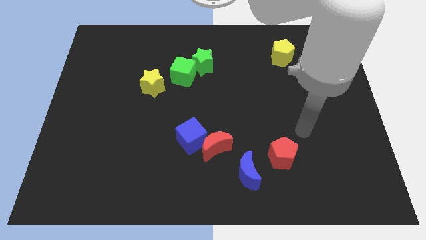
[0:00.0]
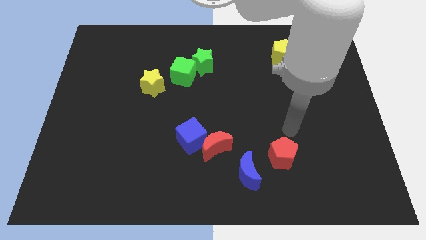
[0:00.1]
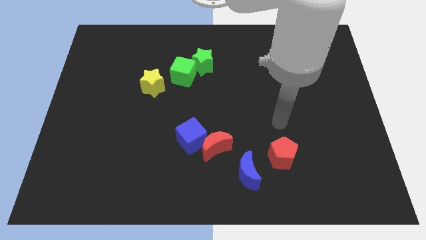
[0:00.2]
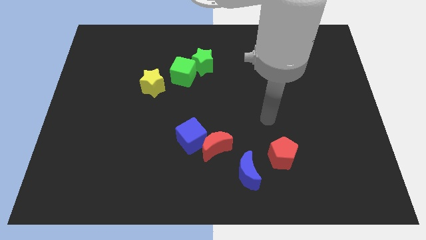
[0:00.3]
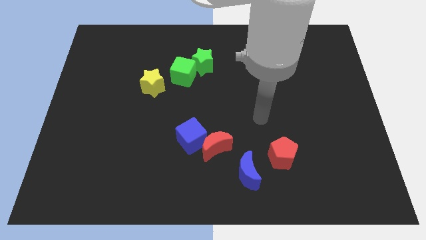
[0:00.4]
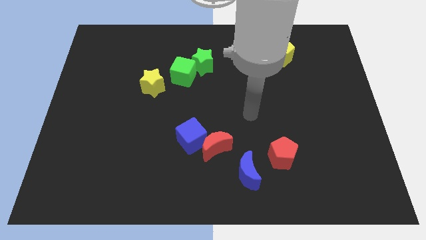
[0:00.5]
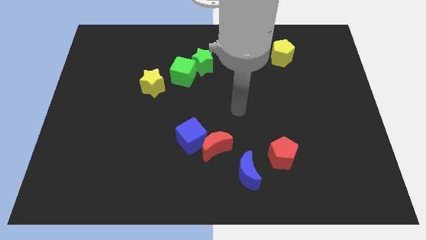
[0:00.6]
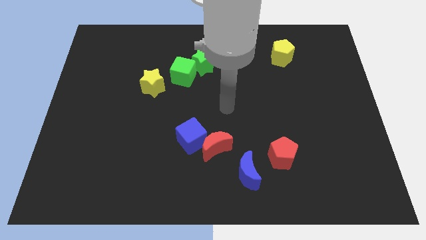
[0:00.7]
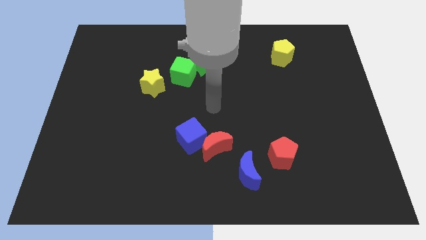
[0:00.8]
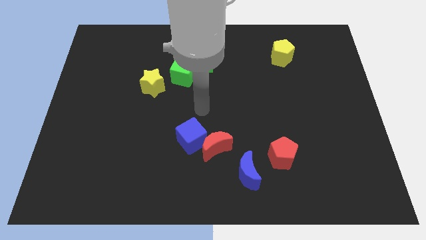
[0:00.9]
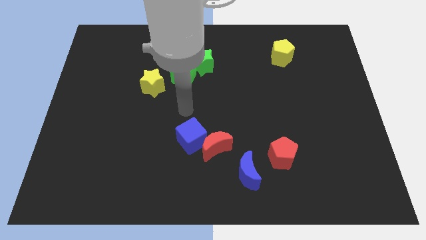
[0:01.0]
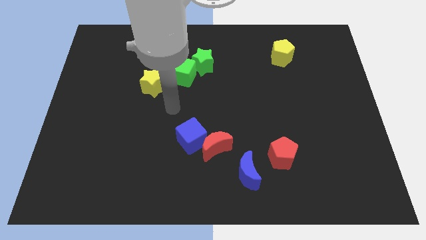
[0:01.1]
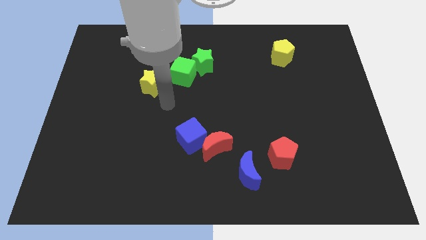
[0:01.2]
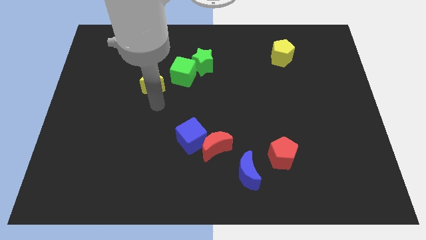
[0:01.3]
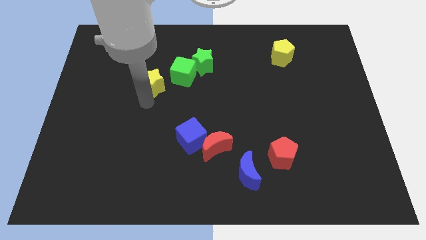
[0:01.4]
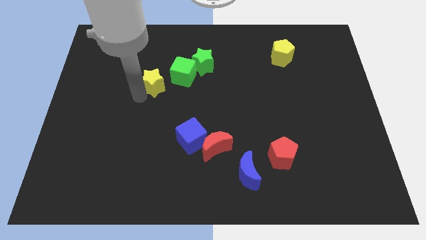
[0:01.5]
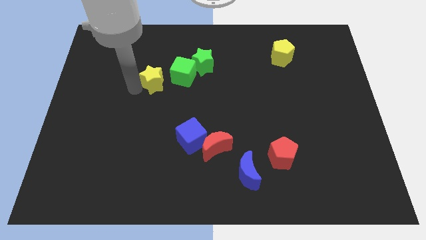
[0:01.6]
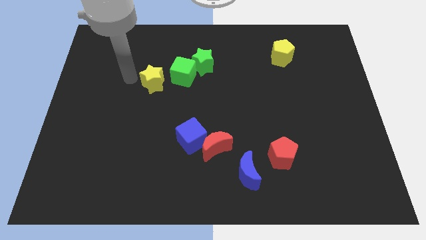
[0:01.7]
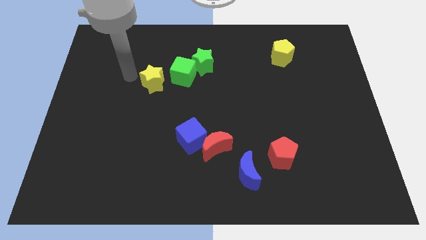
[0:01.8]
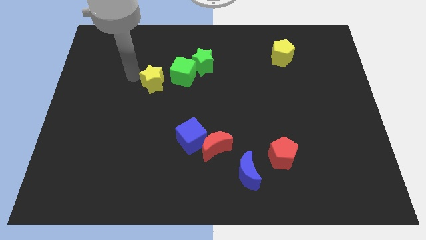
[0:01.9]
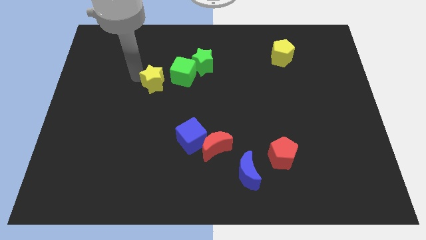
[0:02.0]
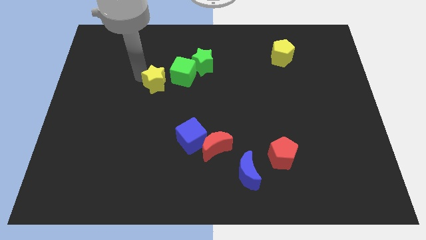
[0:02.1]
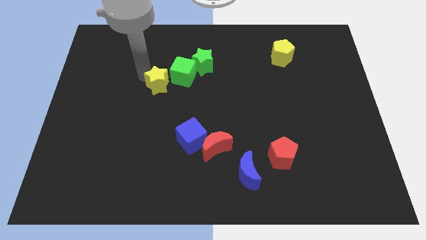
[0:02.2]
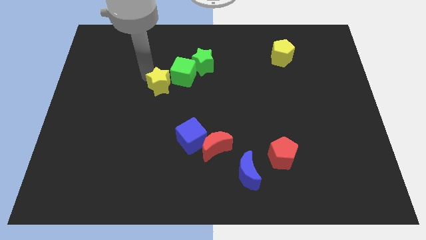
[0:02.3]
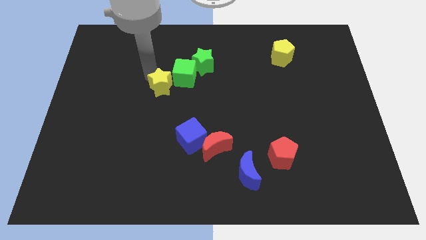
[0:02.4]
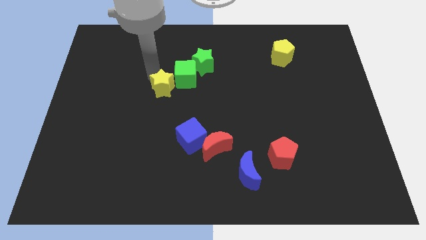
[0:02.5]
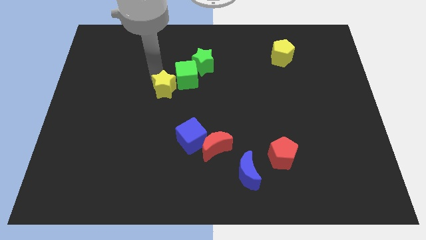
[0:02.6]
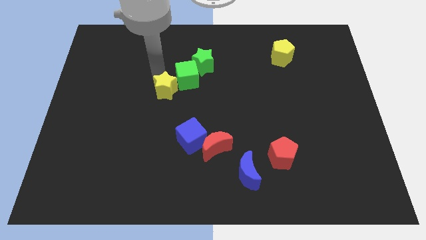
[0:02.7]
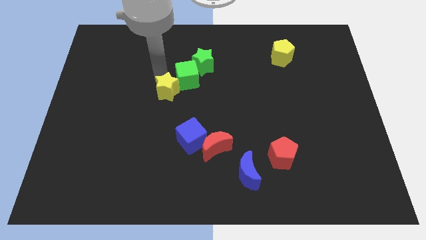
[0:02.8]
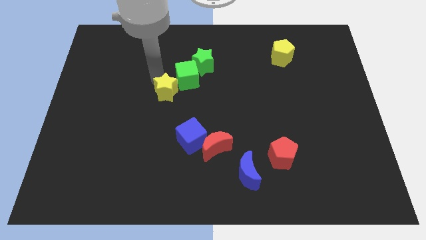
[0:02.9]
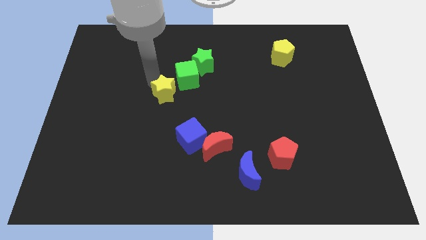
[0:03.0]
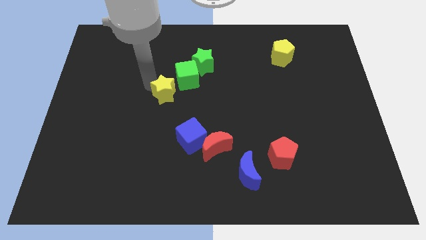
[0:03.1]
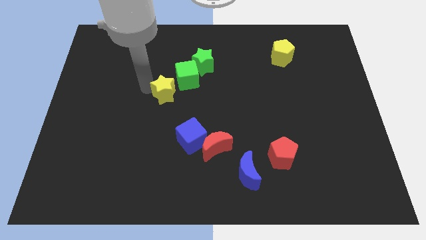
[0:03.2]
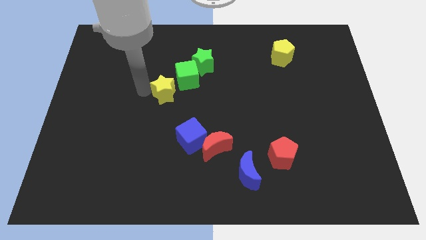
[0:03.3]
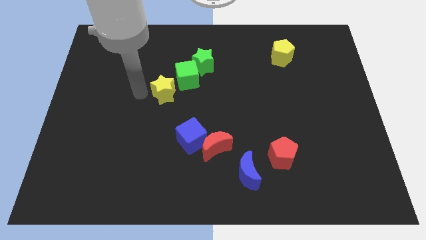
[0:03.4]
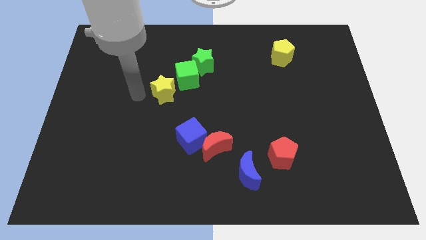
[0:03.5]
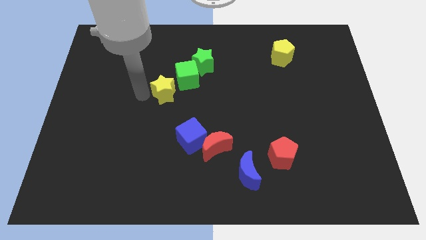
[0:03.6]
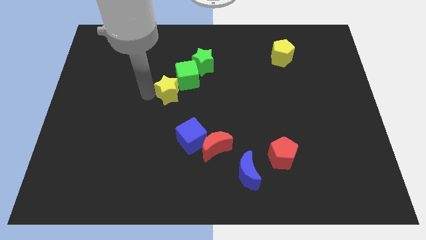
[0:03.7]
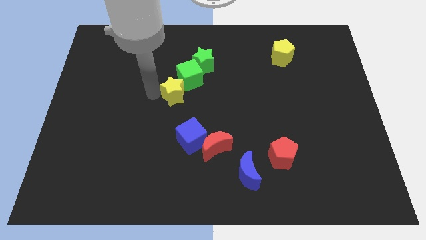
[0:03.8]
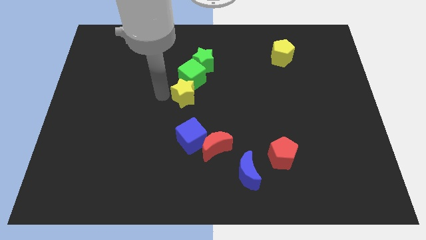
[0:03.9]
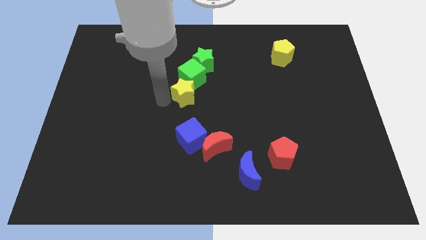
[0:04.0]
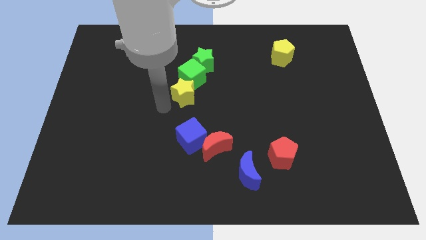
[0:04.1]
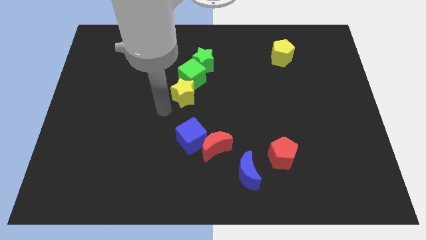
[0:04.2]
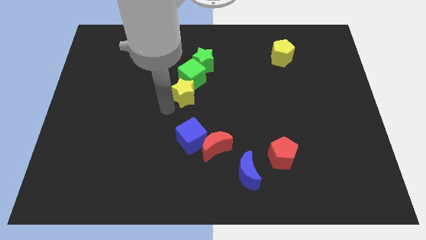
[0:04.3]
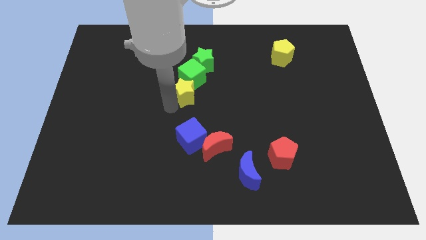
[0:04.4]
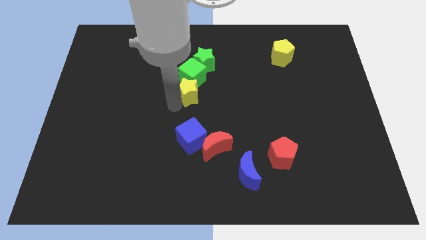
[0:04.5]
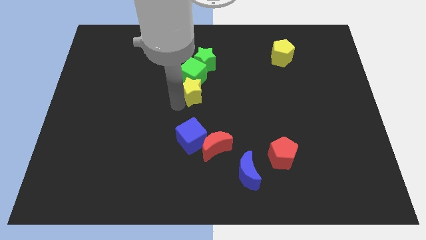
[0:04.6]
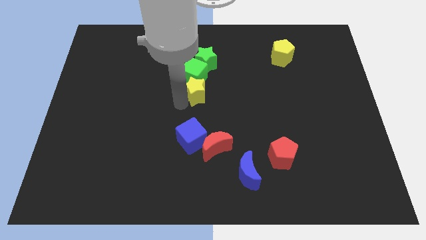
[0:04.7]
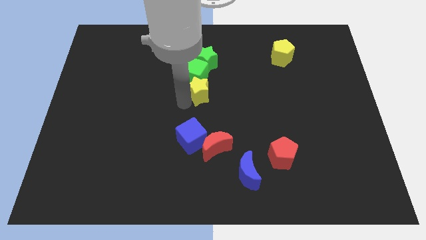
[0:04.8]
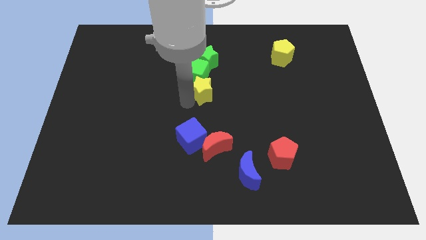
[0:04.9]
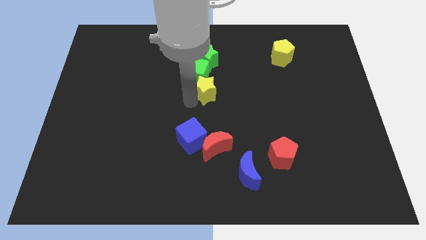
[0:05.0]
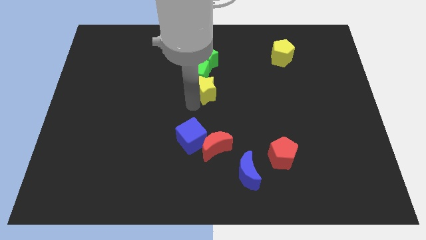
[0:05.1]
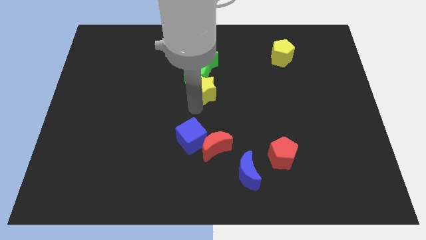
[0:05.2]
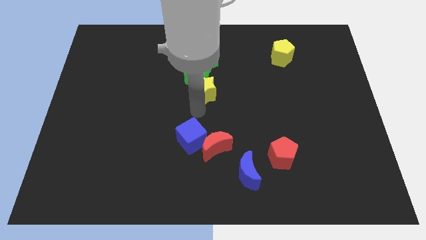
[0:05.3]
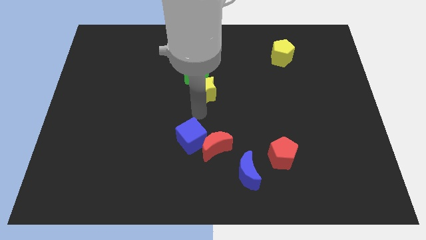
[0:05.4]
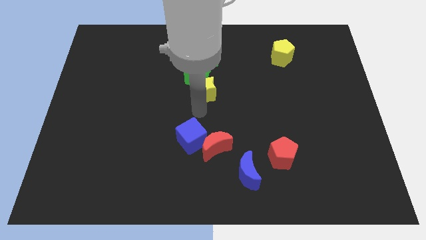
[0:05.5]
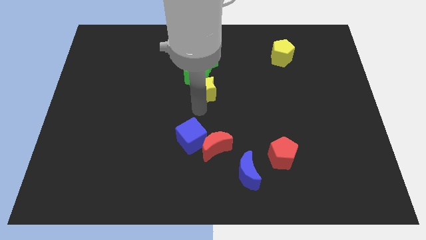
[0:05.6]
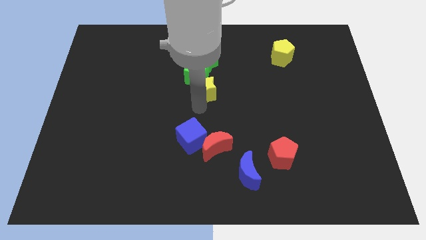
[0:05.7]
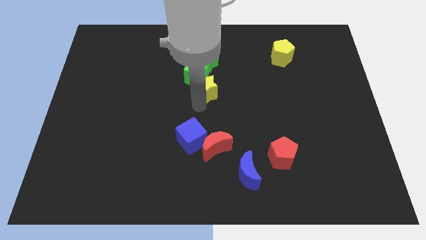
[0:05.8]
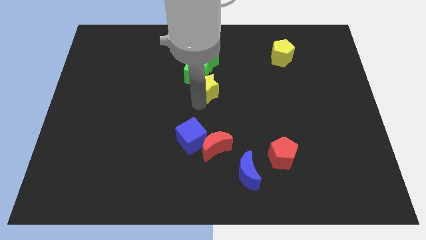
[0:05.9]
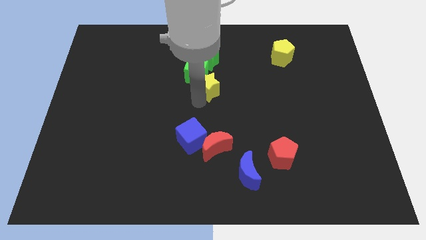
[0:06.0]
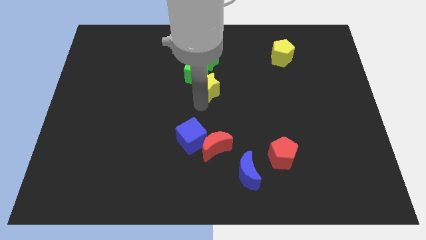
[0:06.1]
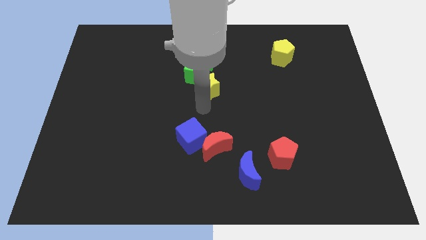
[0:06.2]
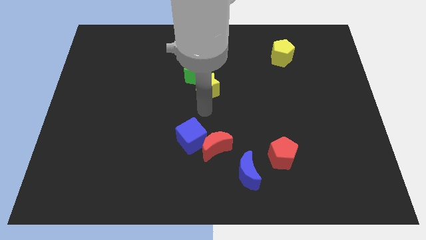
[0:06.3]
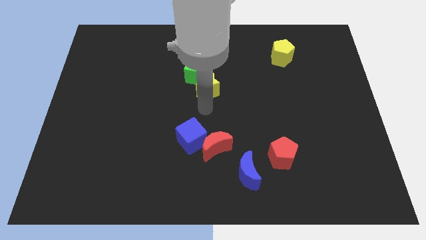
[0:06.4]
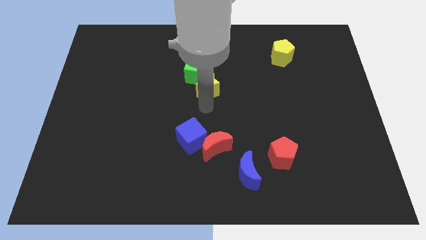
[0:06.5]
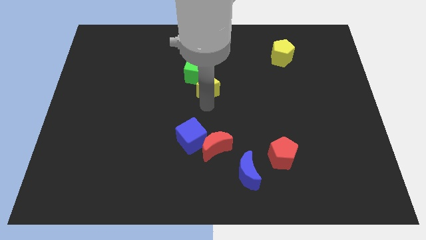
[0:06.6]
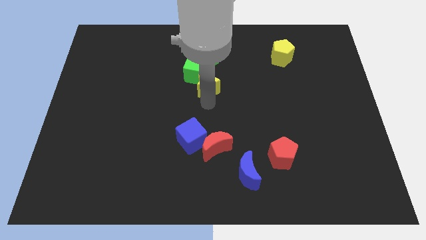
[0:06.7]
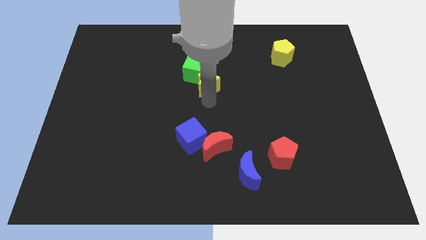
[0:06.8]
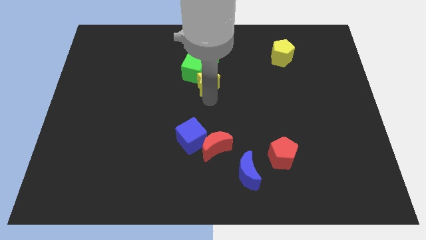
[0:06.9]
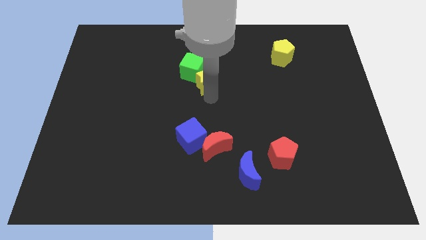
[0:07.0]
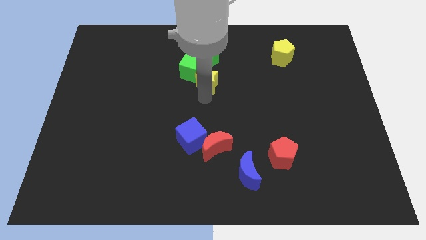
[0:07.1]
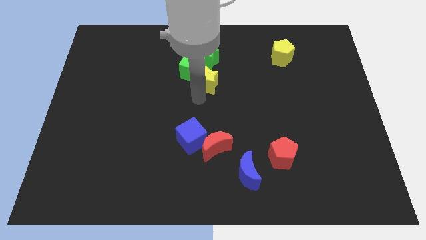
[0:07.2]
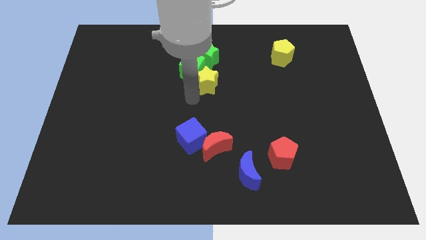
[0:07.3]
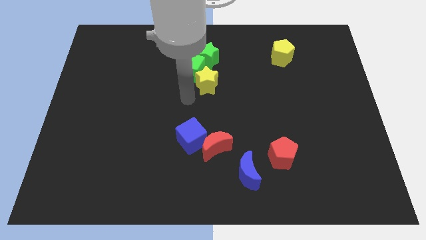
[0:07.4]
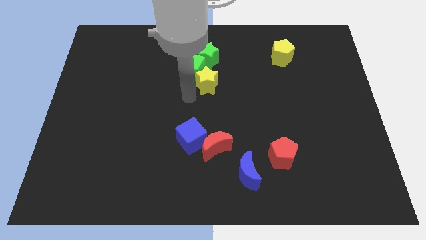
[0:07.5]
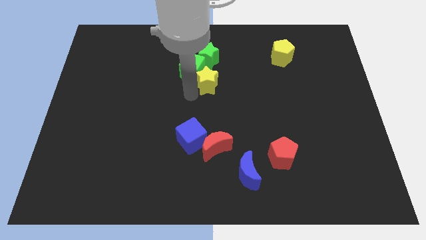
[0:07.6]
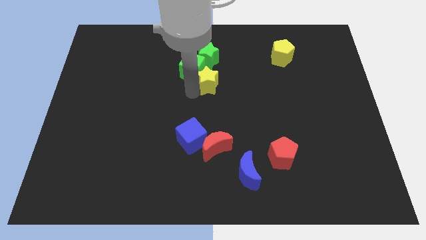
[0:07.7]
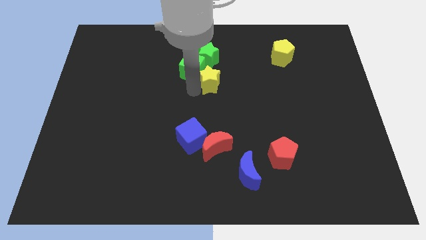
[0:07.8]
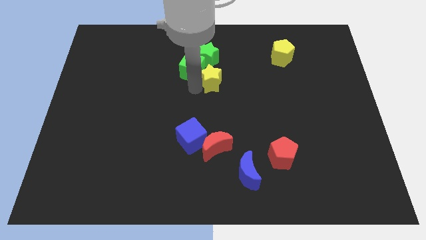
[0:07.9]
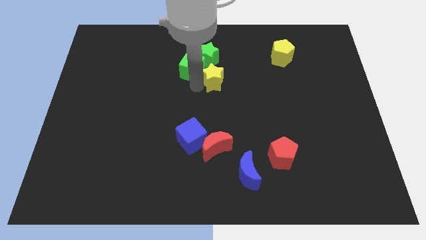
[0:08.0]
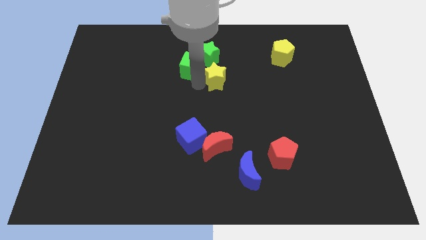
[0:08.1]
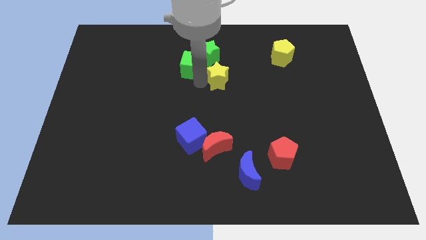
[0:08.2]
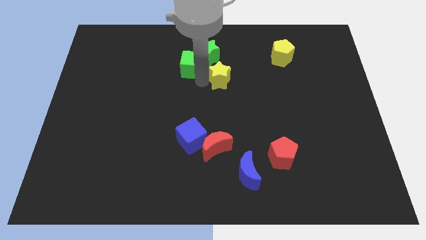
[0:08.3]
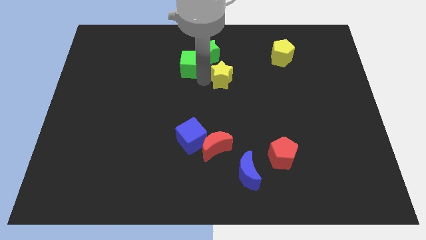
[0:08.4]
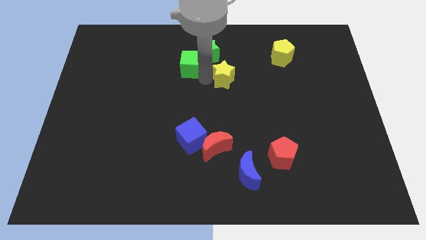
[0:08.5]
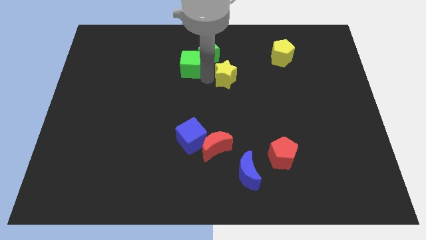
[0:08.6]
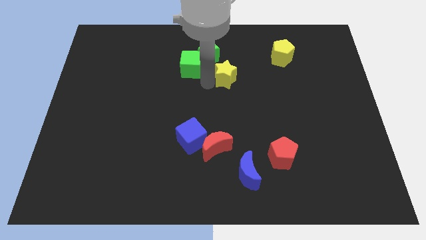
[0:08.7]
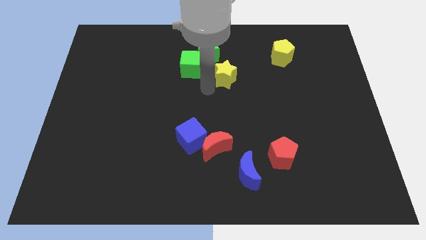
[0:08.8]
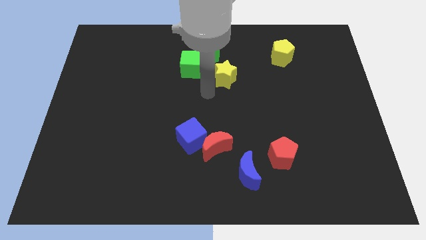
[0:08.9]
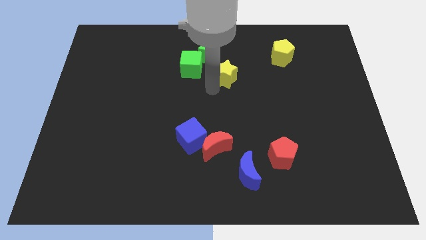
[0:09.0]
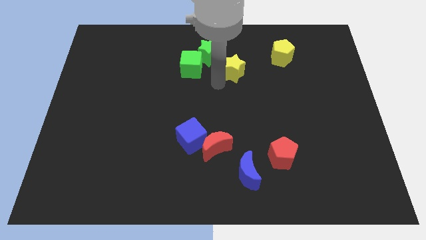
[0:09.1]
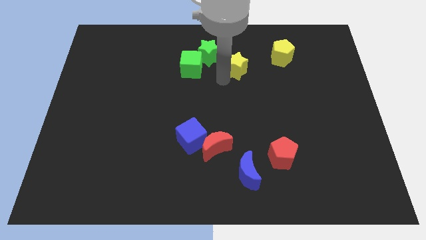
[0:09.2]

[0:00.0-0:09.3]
put the yellow star to the right side of the green star
